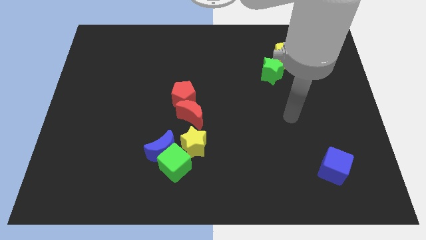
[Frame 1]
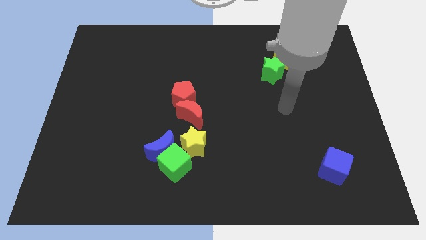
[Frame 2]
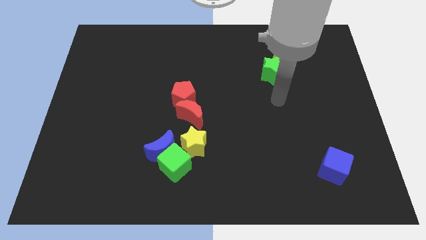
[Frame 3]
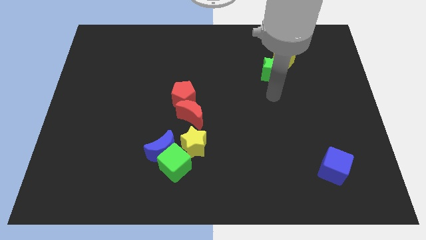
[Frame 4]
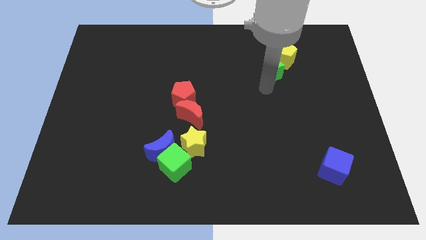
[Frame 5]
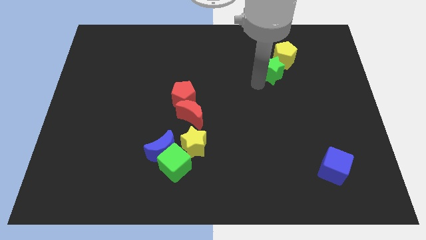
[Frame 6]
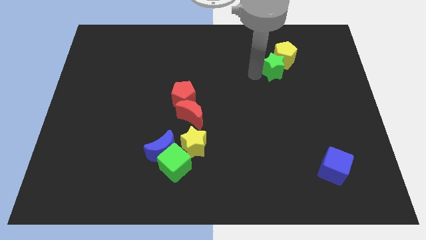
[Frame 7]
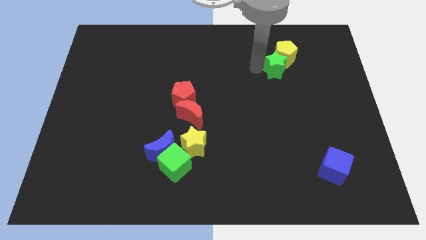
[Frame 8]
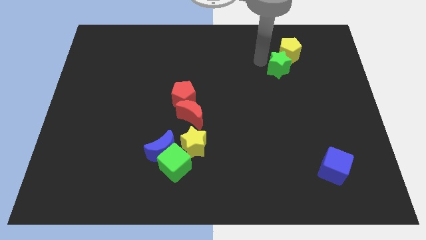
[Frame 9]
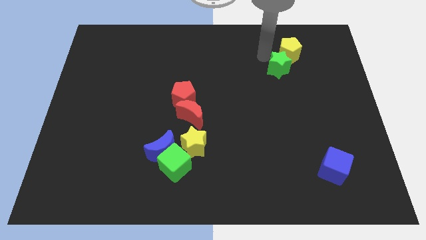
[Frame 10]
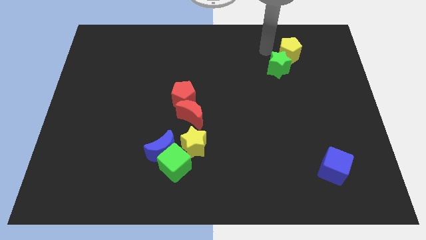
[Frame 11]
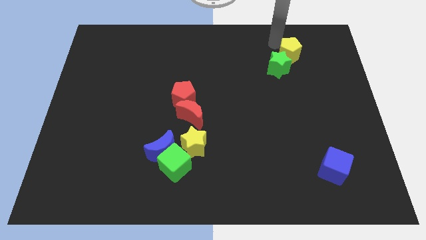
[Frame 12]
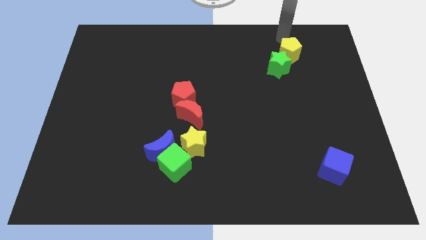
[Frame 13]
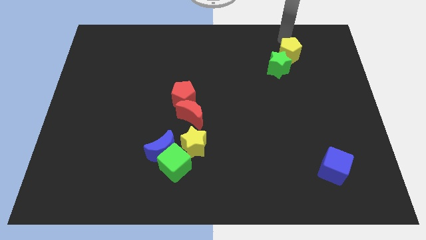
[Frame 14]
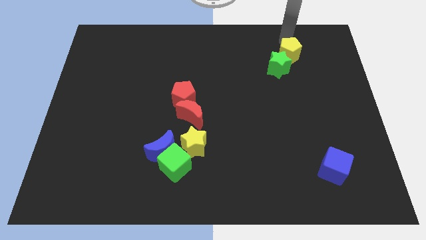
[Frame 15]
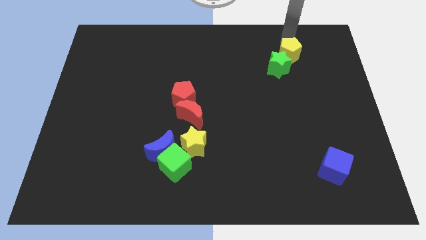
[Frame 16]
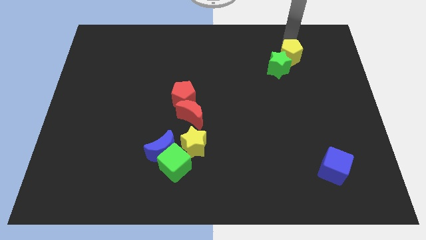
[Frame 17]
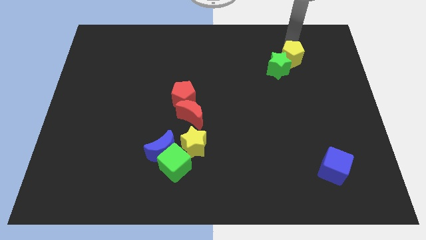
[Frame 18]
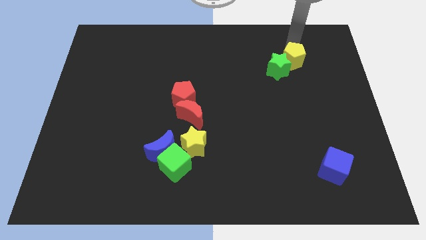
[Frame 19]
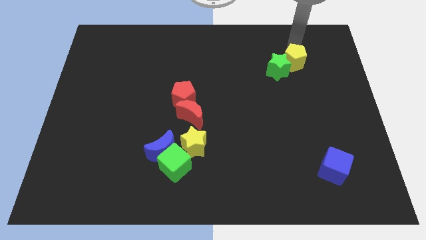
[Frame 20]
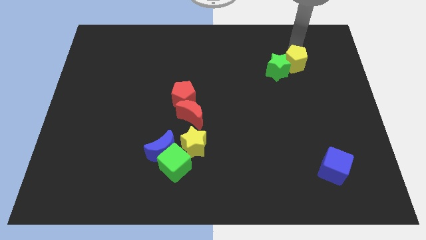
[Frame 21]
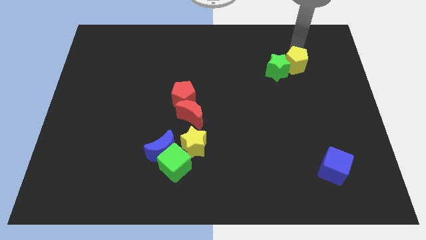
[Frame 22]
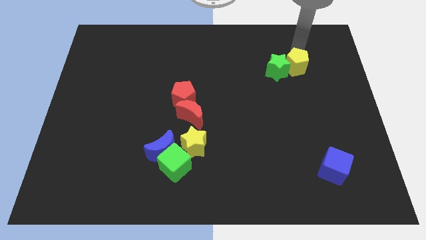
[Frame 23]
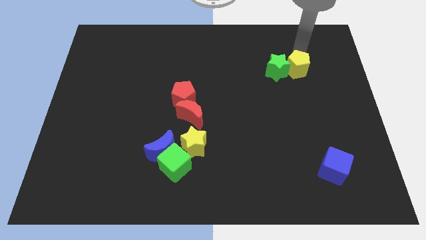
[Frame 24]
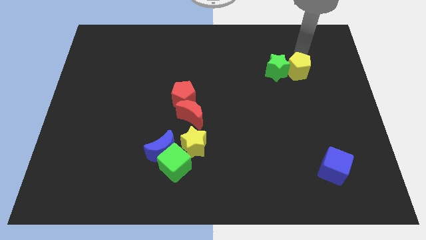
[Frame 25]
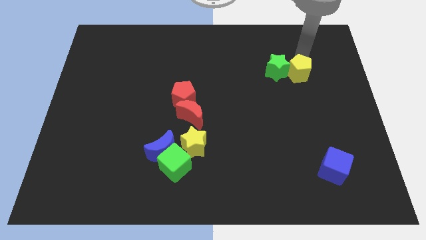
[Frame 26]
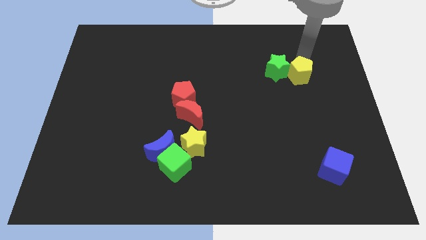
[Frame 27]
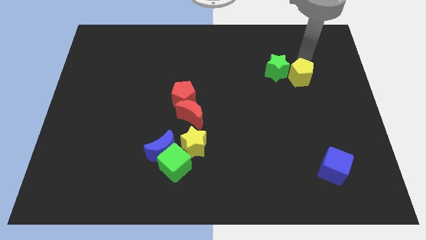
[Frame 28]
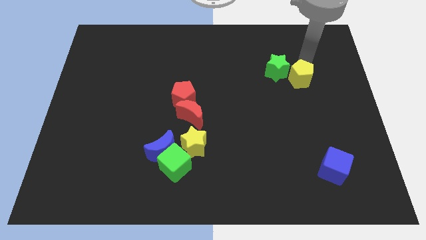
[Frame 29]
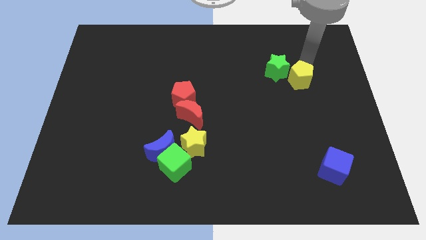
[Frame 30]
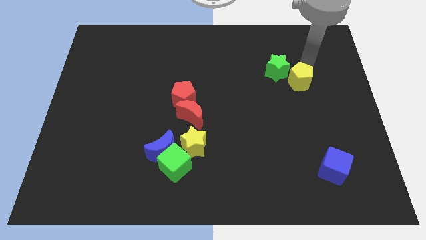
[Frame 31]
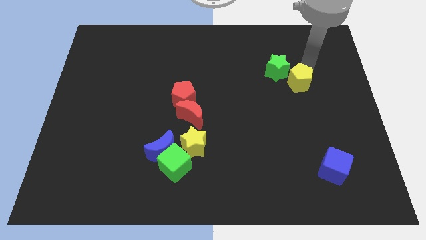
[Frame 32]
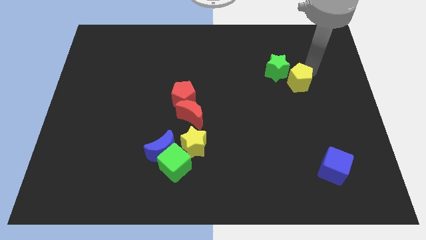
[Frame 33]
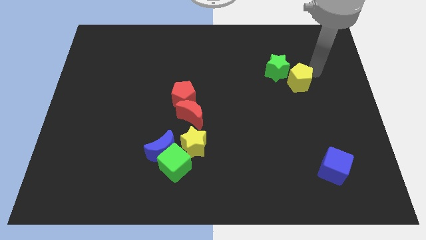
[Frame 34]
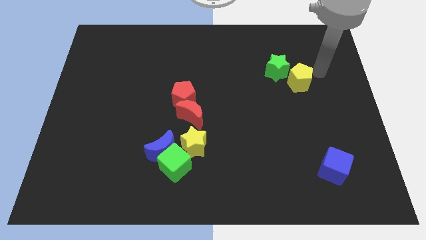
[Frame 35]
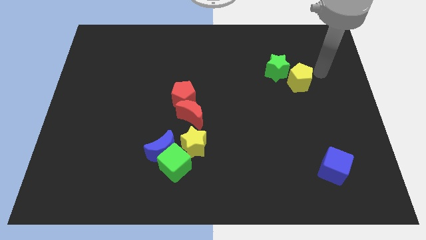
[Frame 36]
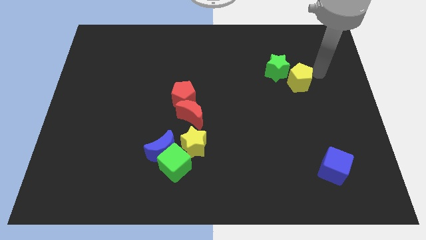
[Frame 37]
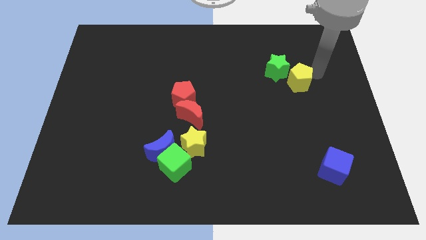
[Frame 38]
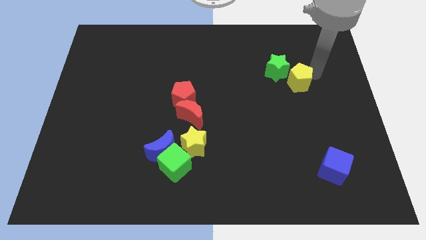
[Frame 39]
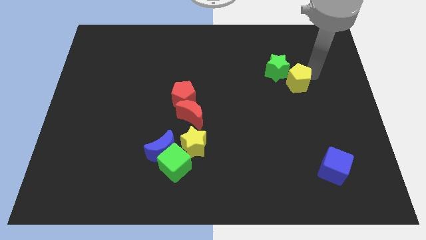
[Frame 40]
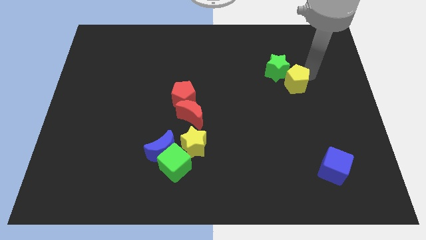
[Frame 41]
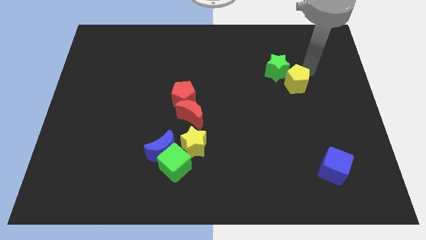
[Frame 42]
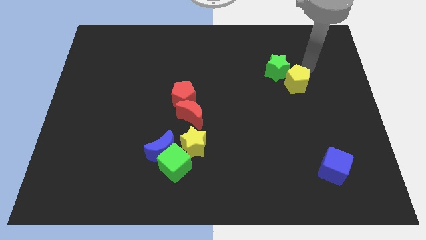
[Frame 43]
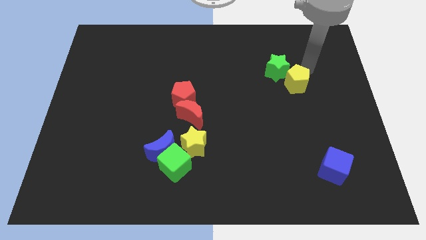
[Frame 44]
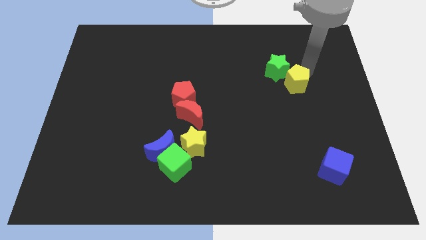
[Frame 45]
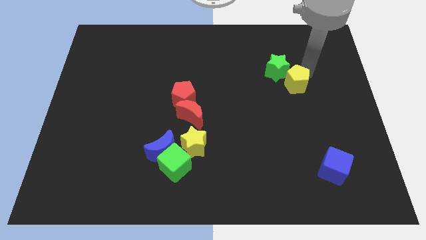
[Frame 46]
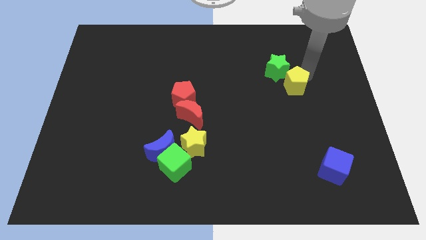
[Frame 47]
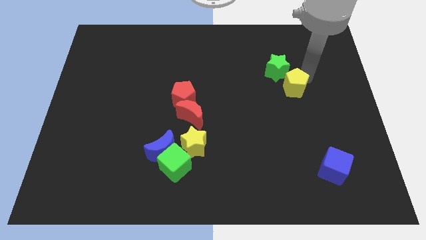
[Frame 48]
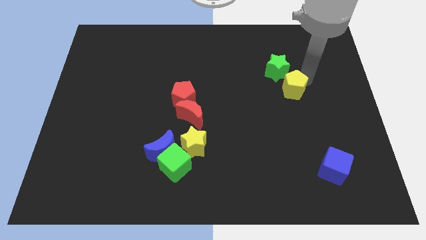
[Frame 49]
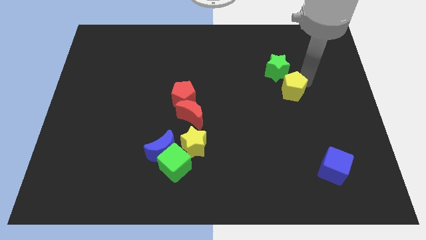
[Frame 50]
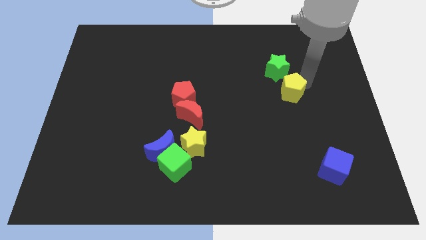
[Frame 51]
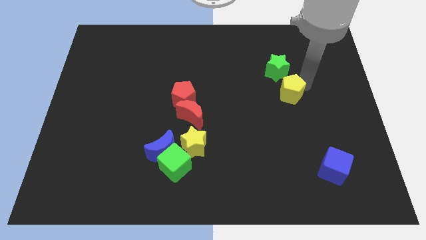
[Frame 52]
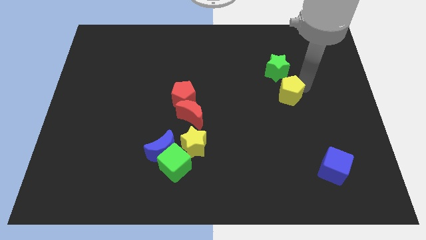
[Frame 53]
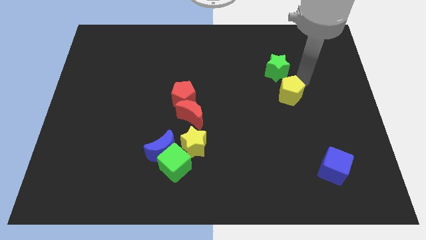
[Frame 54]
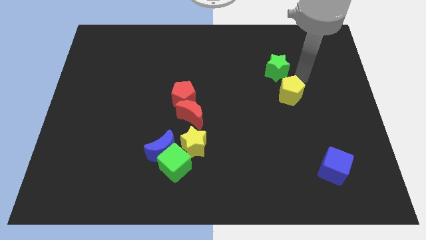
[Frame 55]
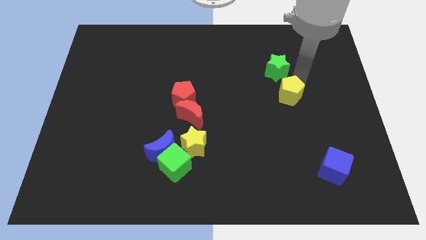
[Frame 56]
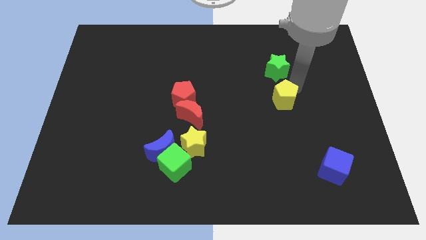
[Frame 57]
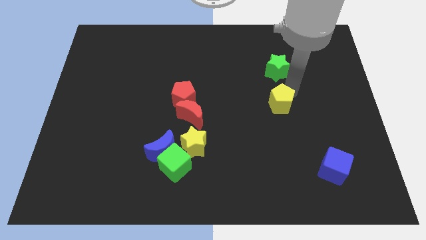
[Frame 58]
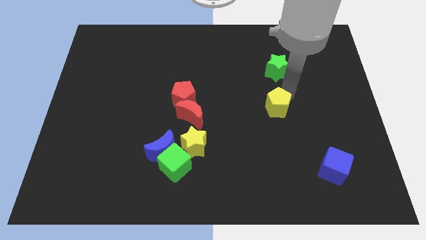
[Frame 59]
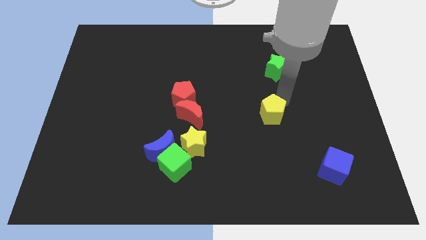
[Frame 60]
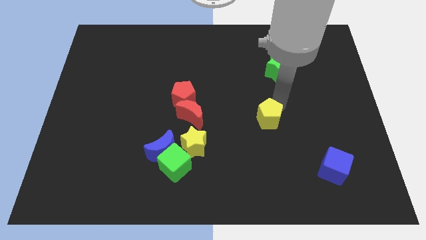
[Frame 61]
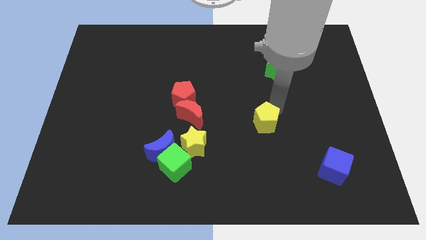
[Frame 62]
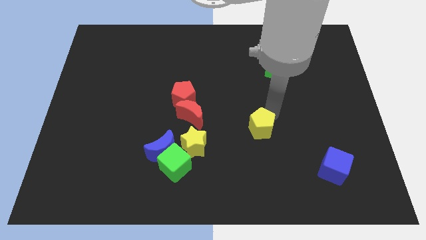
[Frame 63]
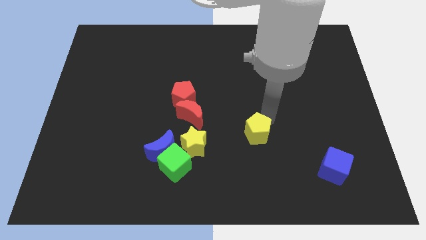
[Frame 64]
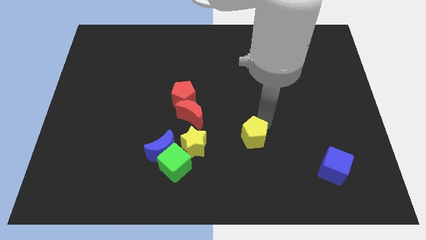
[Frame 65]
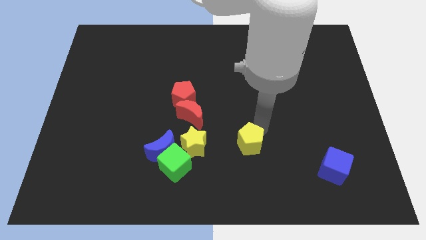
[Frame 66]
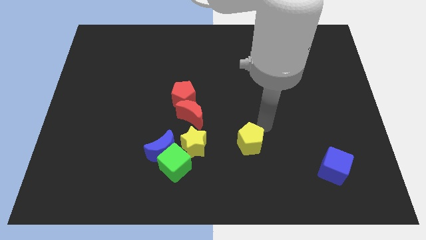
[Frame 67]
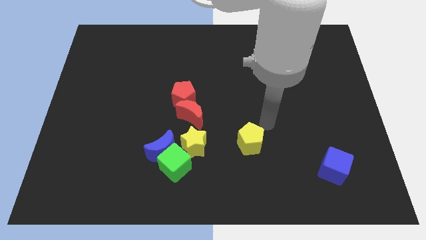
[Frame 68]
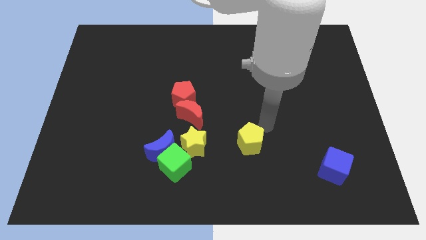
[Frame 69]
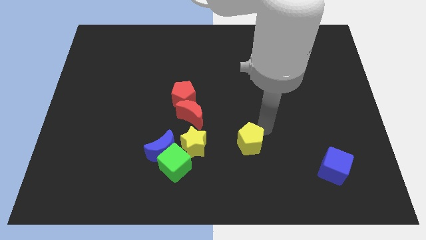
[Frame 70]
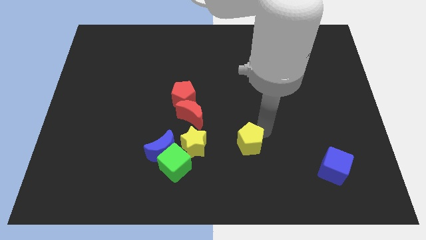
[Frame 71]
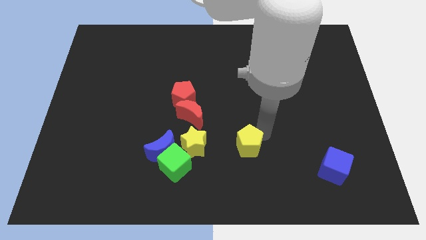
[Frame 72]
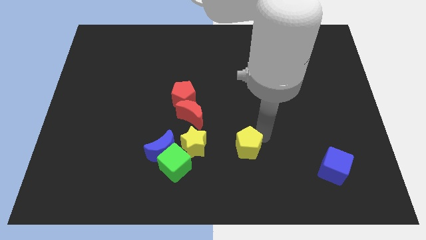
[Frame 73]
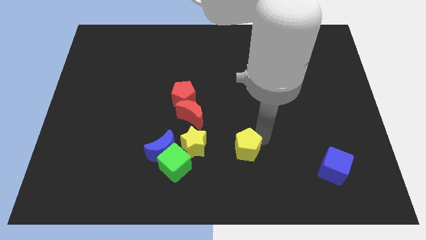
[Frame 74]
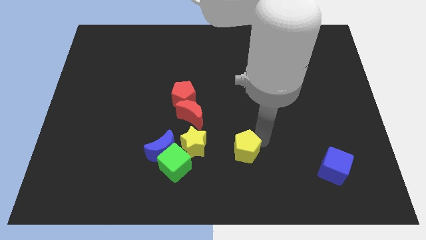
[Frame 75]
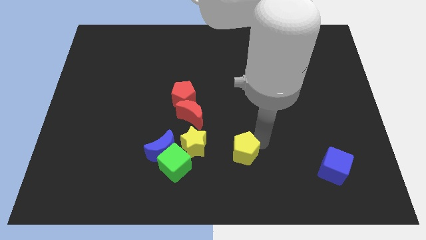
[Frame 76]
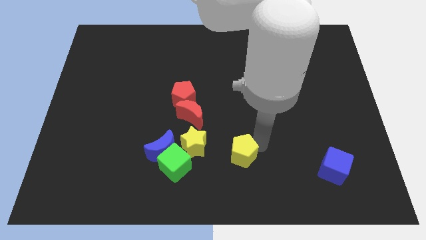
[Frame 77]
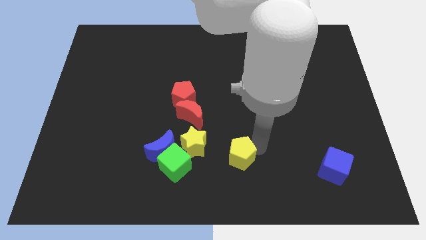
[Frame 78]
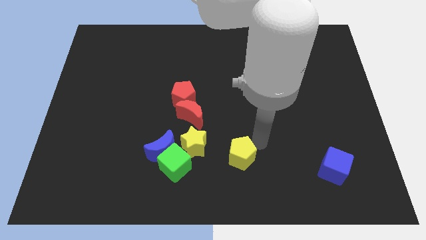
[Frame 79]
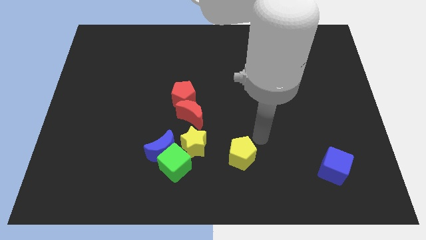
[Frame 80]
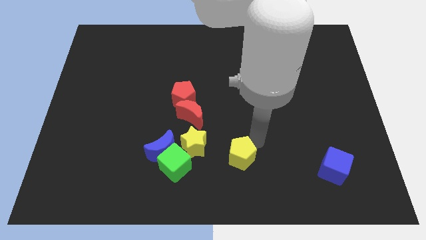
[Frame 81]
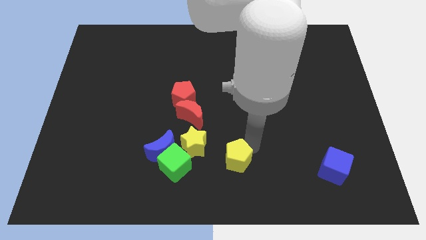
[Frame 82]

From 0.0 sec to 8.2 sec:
put the yellow pentagon to the bottom
